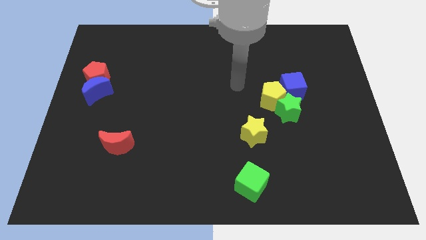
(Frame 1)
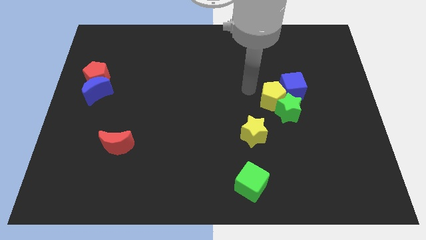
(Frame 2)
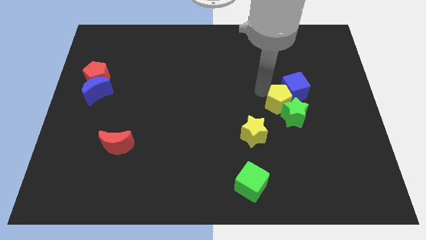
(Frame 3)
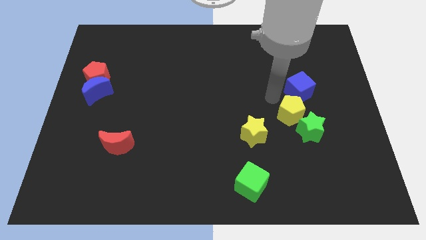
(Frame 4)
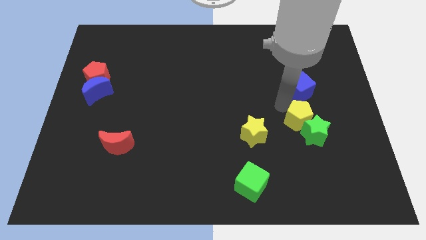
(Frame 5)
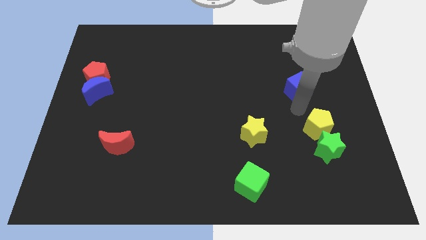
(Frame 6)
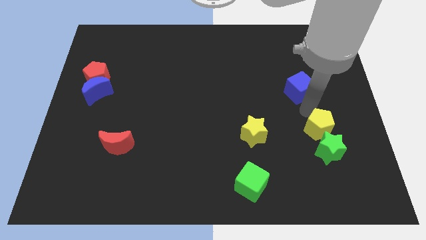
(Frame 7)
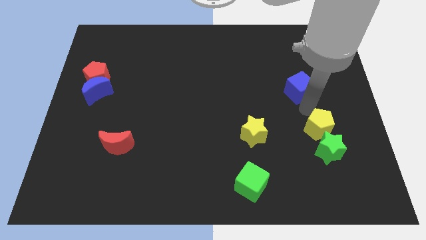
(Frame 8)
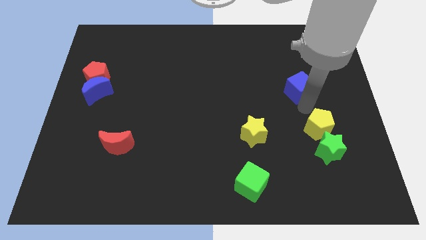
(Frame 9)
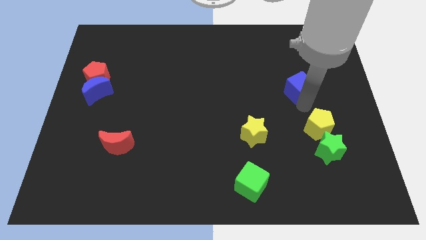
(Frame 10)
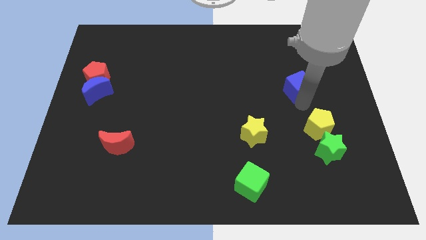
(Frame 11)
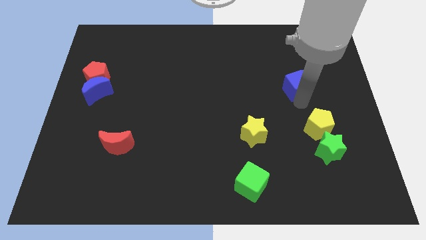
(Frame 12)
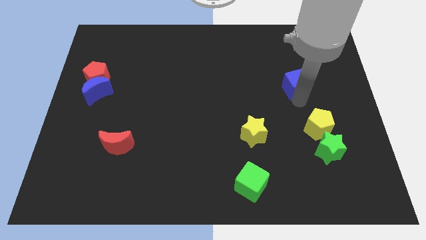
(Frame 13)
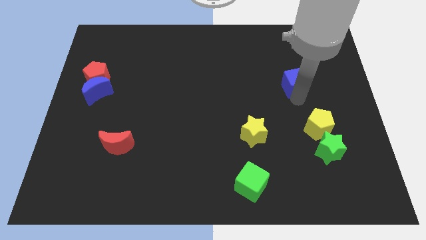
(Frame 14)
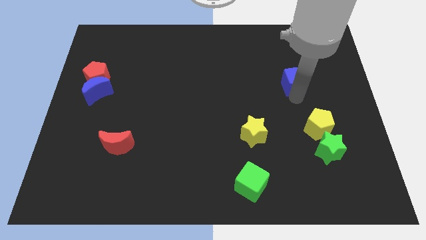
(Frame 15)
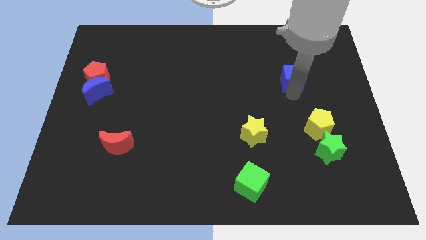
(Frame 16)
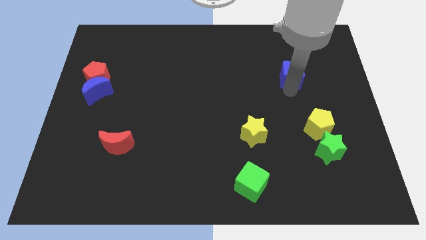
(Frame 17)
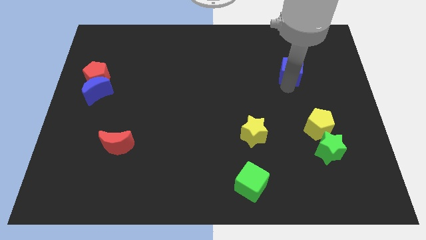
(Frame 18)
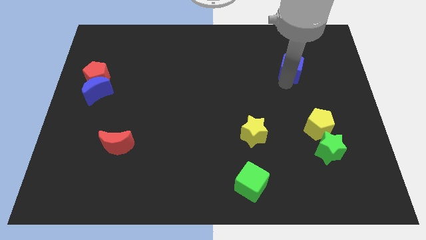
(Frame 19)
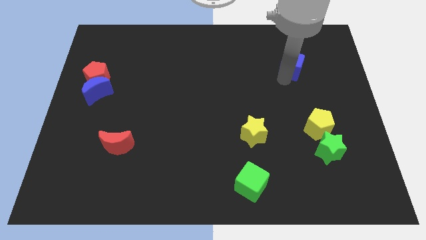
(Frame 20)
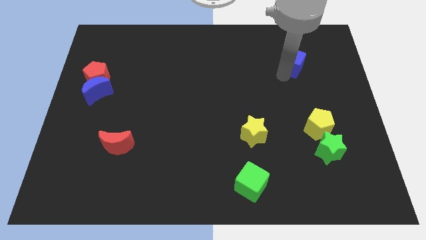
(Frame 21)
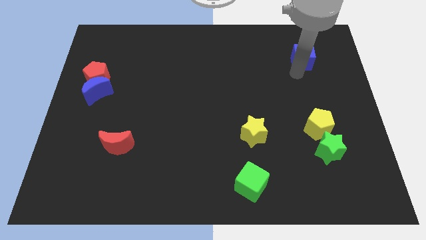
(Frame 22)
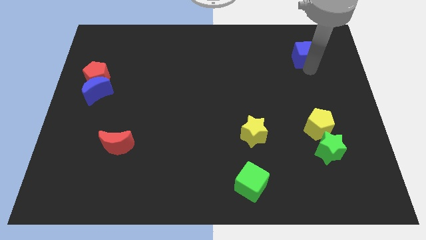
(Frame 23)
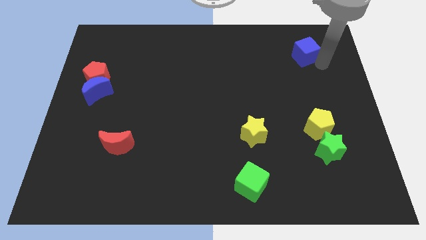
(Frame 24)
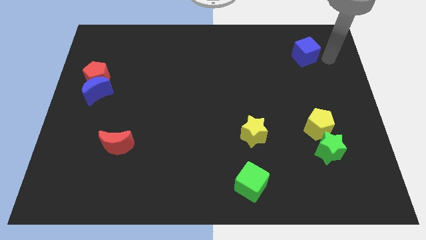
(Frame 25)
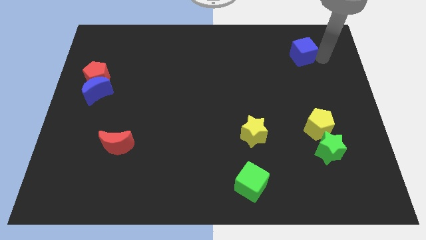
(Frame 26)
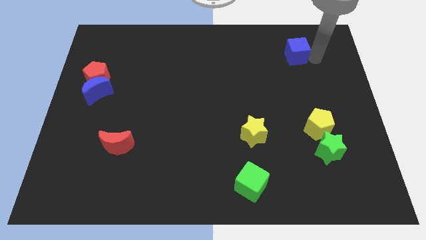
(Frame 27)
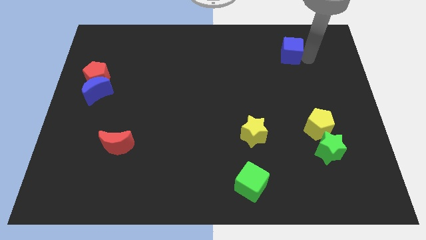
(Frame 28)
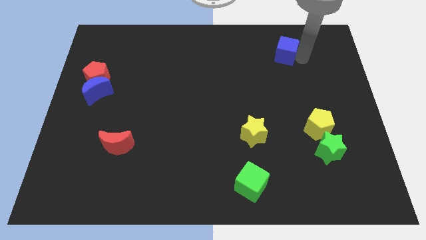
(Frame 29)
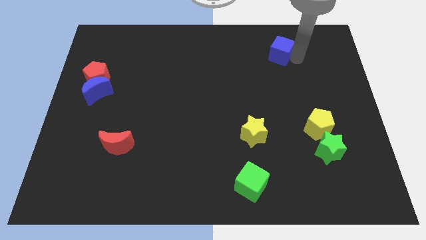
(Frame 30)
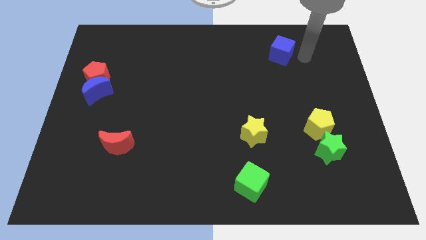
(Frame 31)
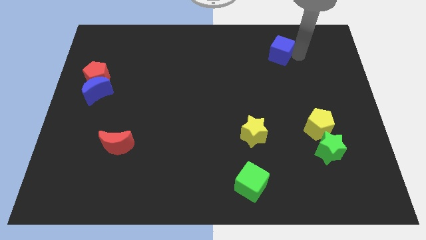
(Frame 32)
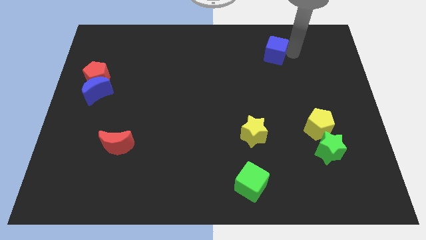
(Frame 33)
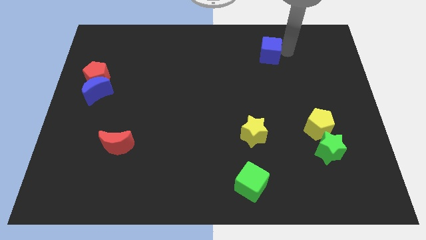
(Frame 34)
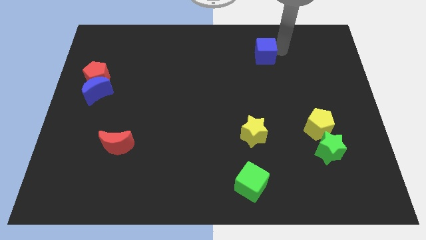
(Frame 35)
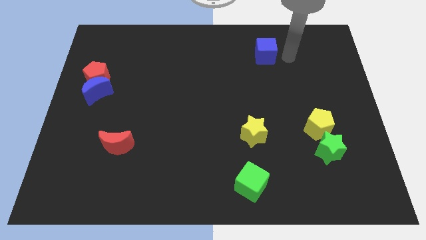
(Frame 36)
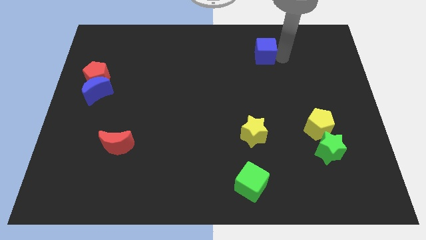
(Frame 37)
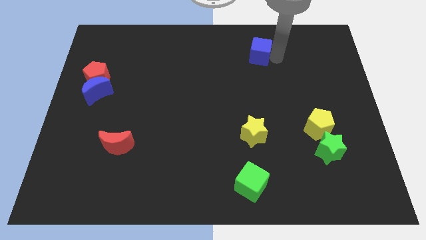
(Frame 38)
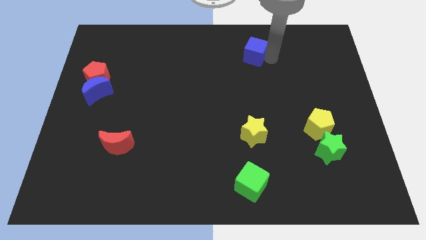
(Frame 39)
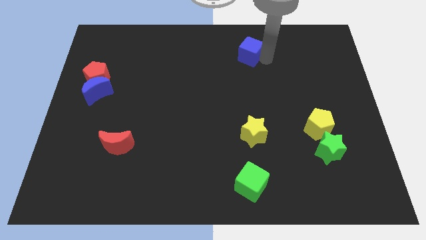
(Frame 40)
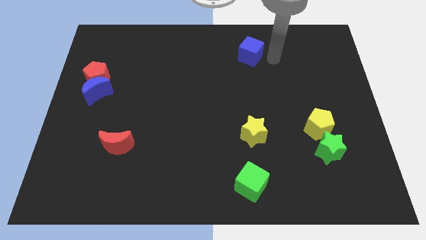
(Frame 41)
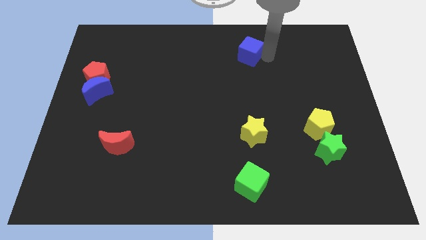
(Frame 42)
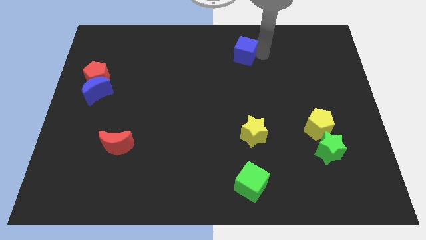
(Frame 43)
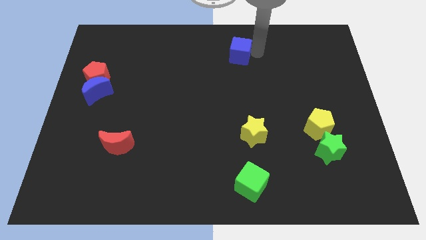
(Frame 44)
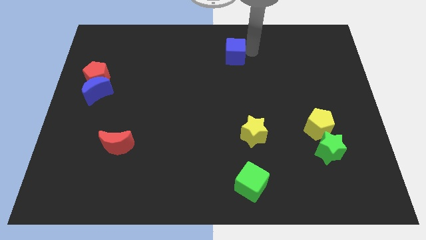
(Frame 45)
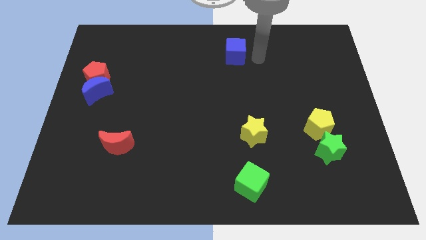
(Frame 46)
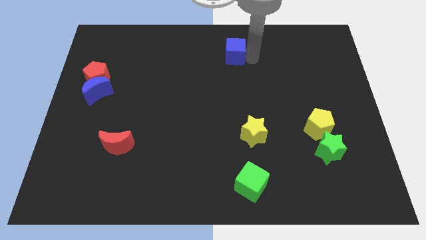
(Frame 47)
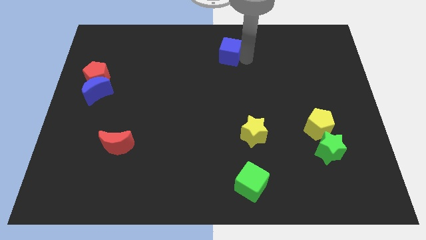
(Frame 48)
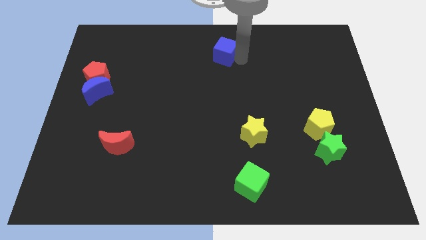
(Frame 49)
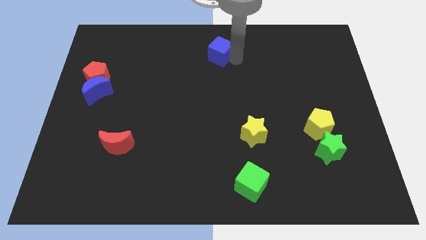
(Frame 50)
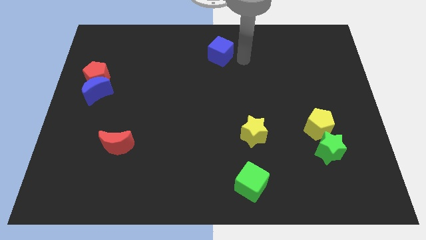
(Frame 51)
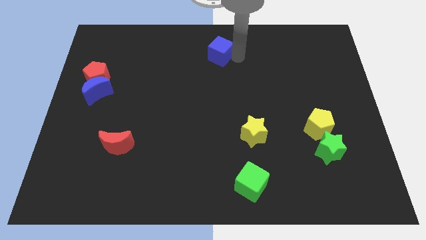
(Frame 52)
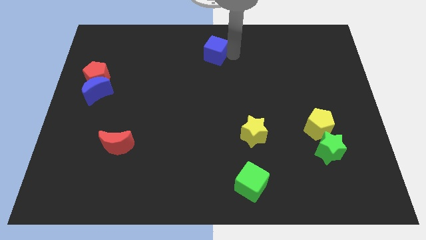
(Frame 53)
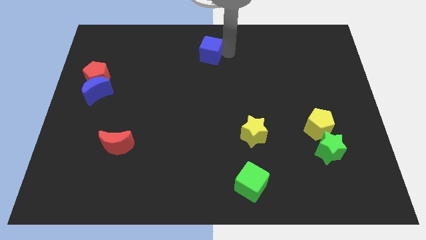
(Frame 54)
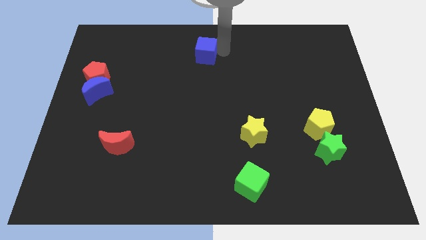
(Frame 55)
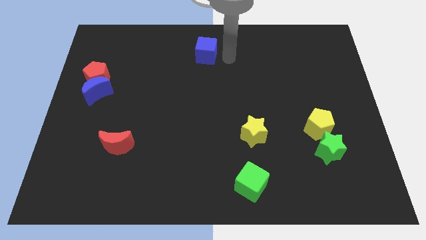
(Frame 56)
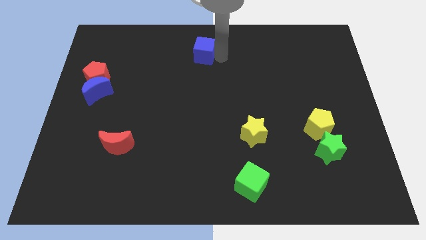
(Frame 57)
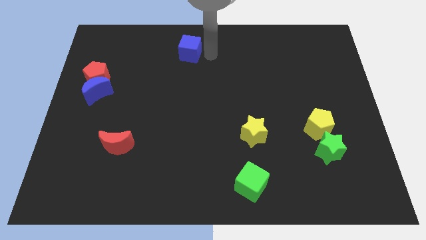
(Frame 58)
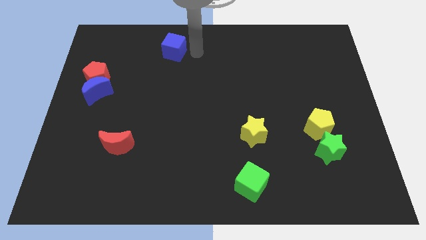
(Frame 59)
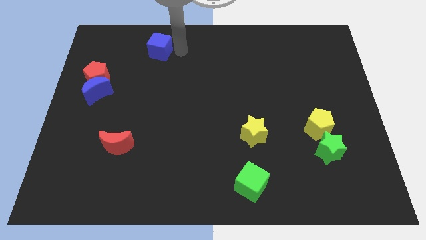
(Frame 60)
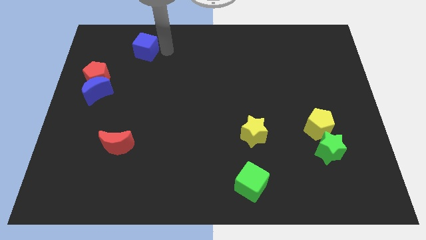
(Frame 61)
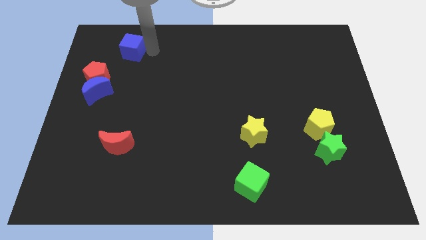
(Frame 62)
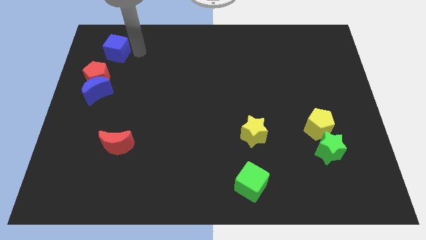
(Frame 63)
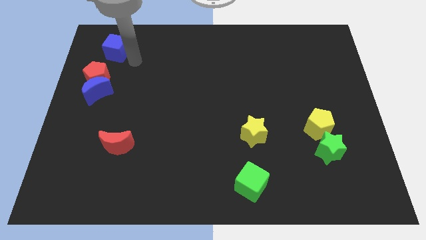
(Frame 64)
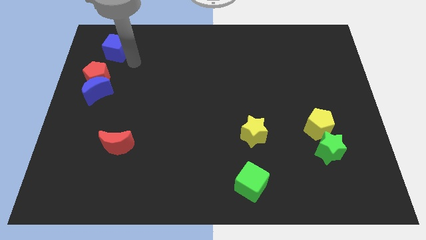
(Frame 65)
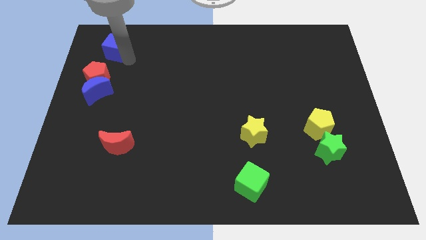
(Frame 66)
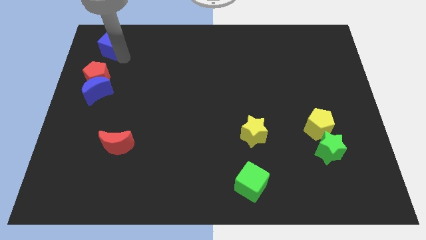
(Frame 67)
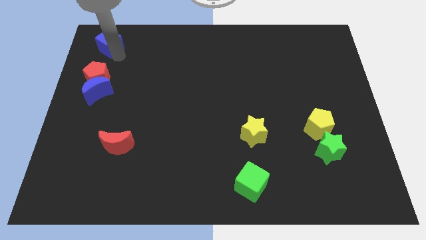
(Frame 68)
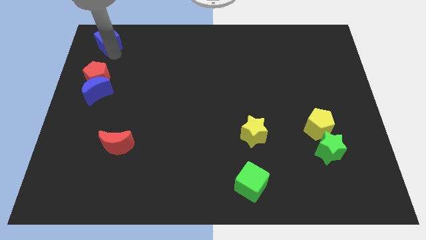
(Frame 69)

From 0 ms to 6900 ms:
put the blue cube to the top left
